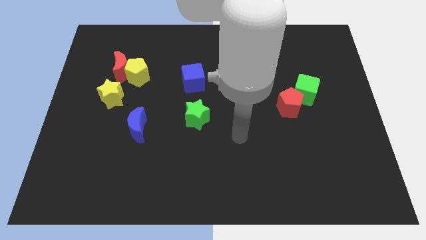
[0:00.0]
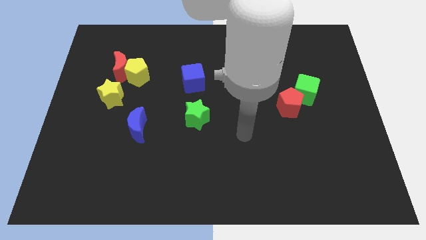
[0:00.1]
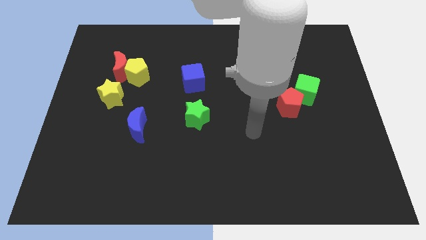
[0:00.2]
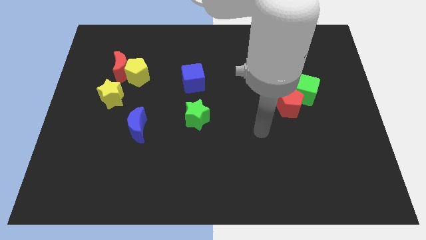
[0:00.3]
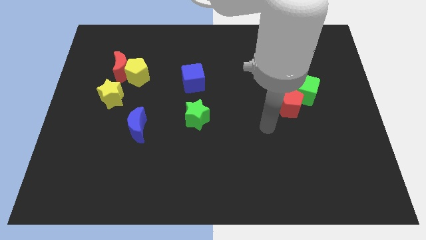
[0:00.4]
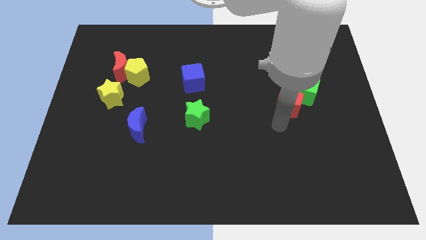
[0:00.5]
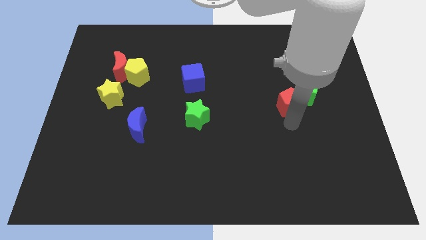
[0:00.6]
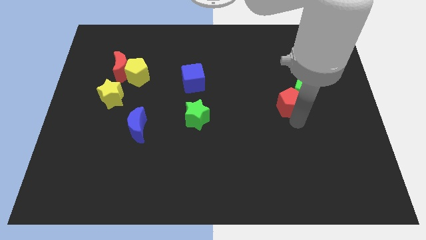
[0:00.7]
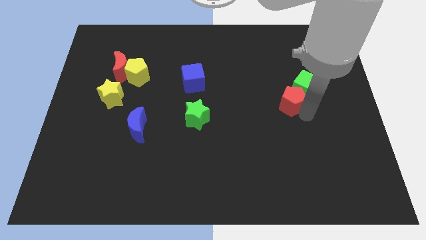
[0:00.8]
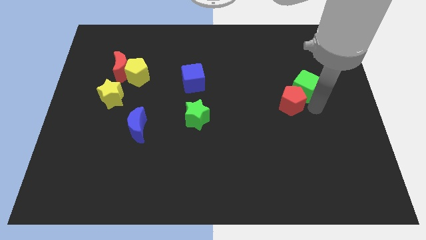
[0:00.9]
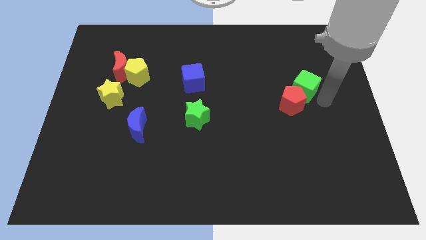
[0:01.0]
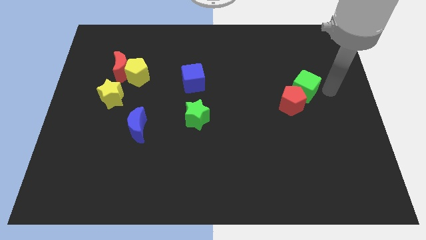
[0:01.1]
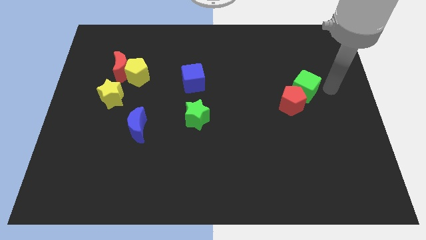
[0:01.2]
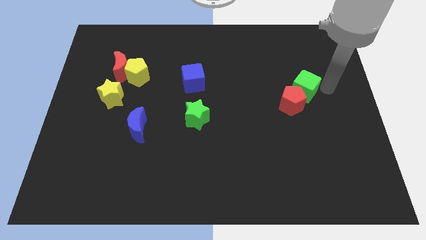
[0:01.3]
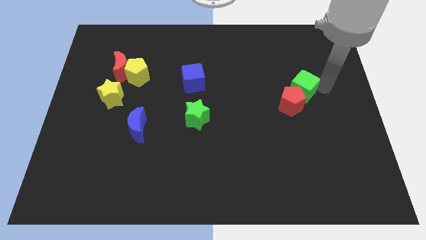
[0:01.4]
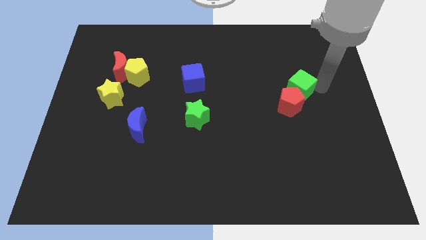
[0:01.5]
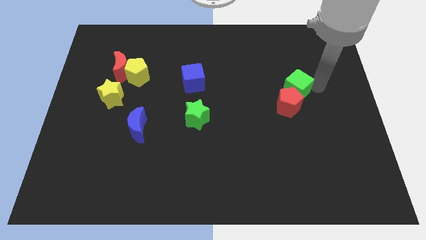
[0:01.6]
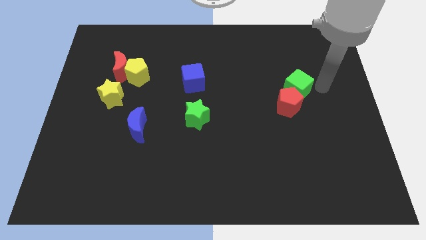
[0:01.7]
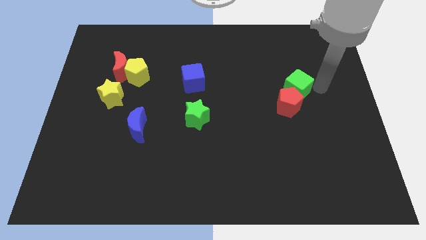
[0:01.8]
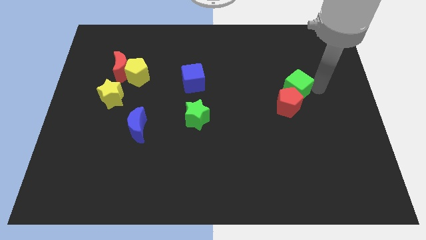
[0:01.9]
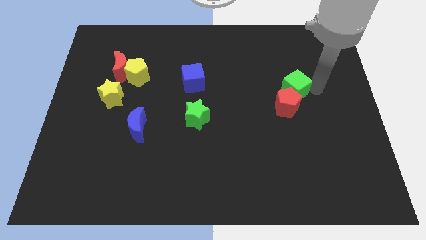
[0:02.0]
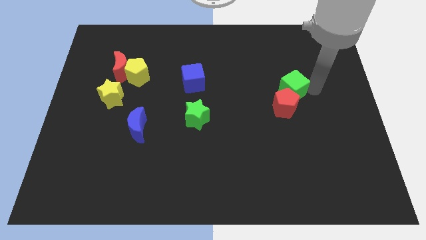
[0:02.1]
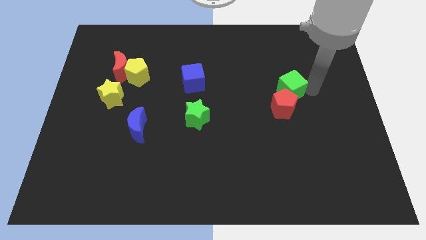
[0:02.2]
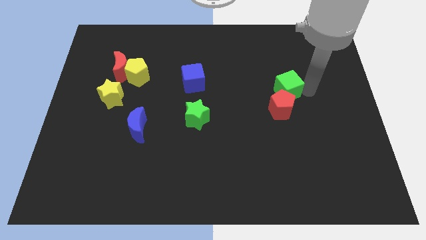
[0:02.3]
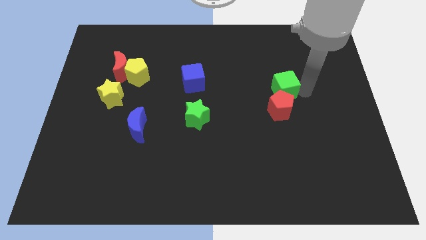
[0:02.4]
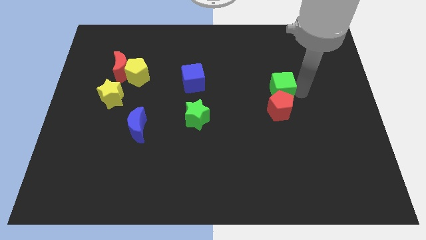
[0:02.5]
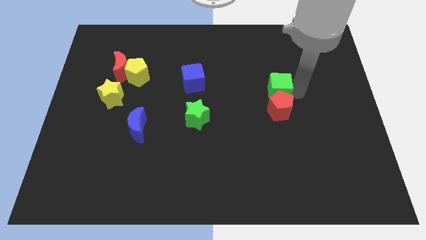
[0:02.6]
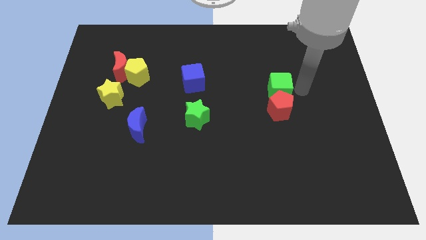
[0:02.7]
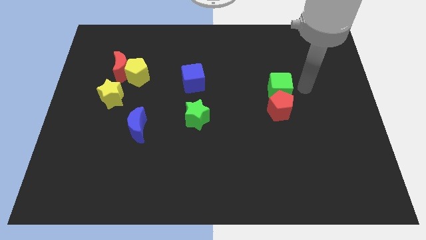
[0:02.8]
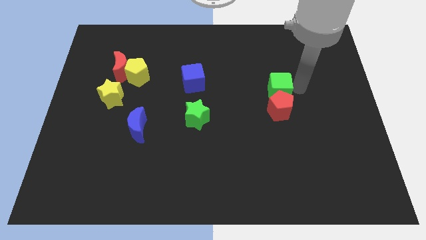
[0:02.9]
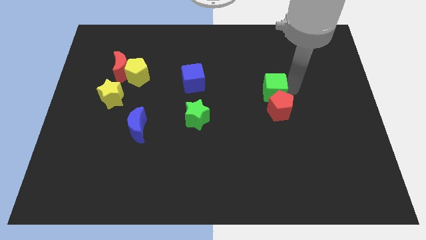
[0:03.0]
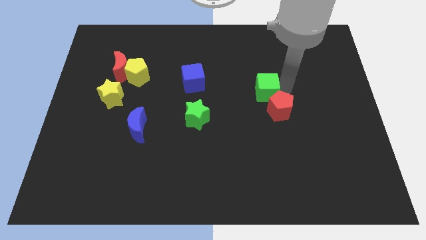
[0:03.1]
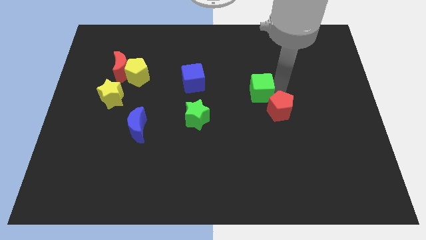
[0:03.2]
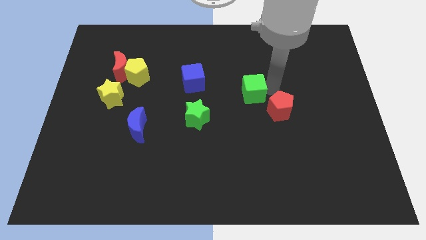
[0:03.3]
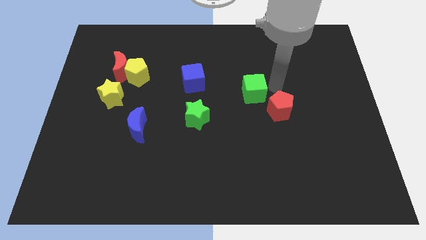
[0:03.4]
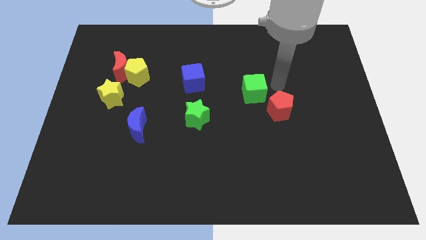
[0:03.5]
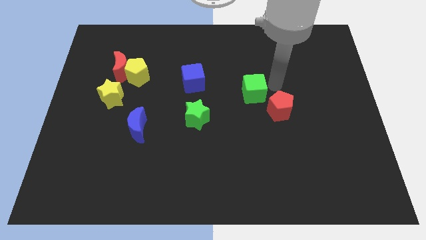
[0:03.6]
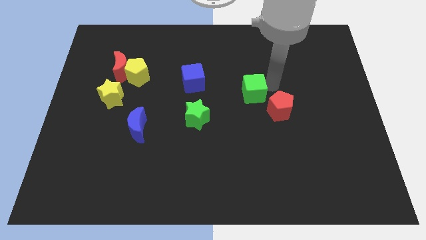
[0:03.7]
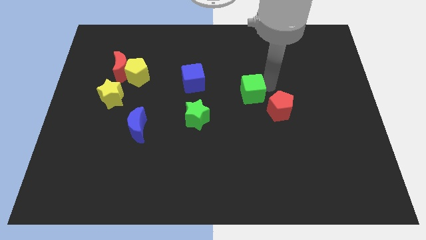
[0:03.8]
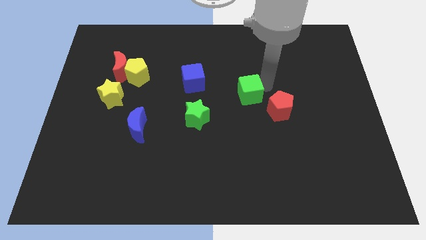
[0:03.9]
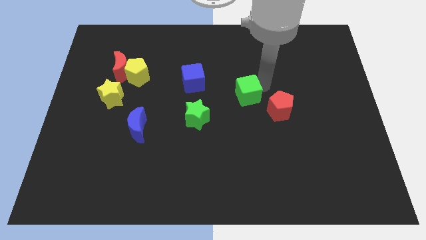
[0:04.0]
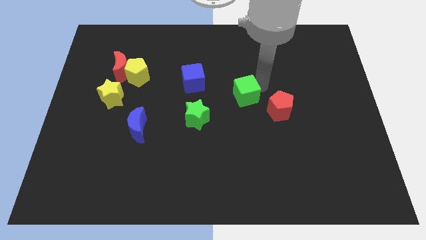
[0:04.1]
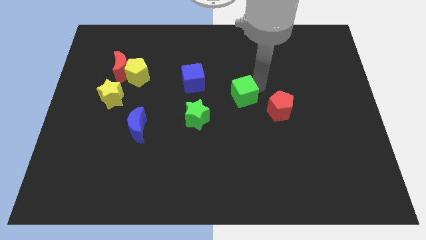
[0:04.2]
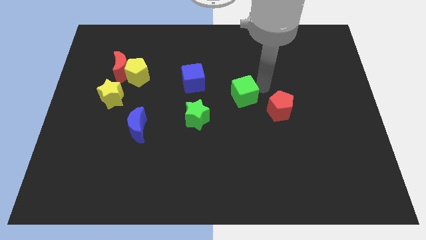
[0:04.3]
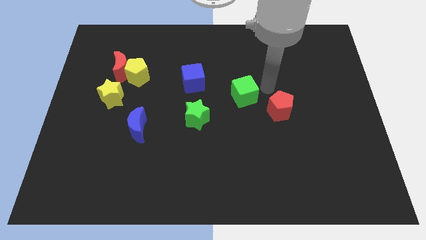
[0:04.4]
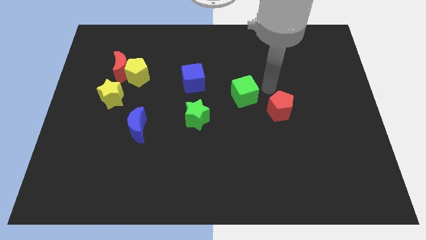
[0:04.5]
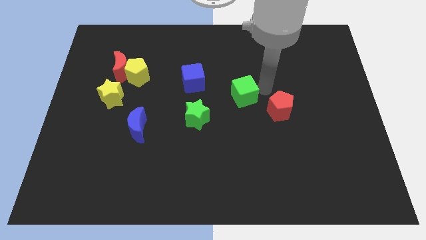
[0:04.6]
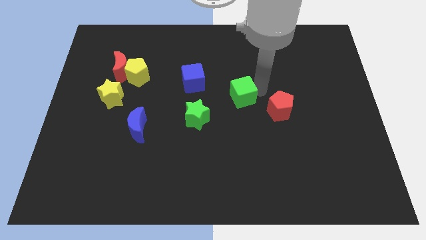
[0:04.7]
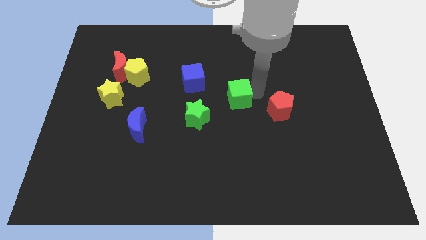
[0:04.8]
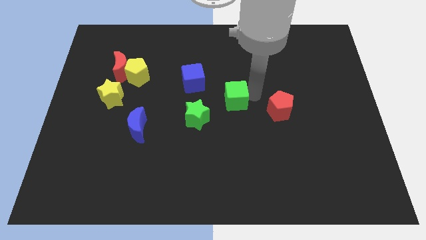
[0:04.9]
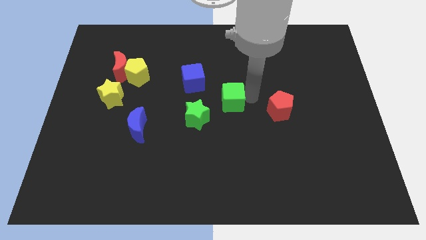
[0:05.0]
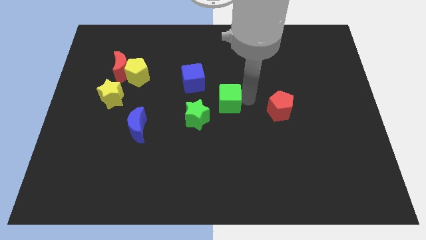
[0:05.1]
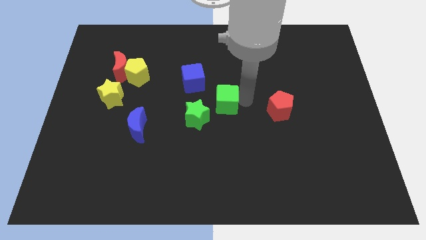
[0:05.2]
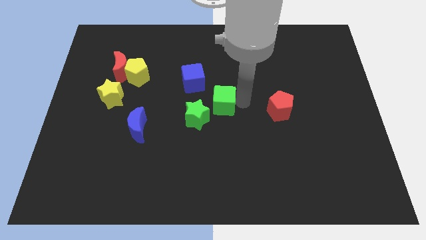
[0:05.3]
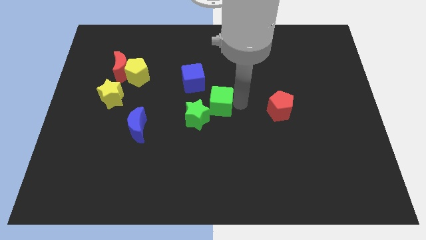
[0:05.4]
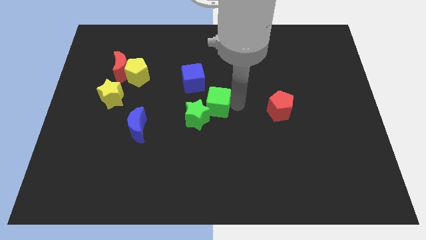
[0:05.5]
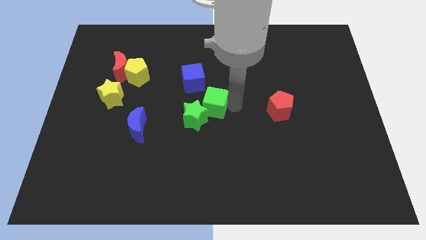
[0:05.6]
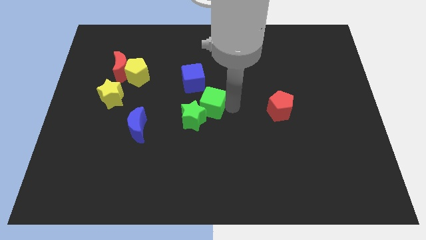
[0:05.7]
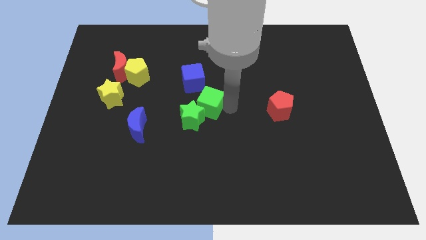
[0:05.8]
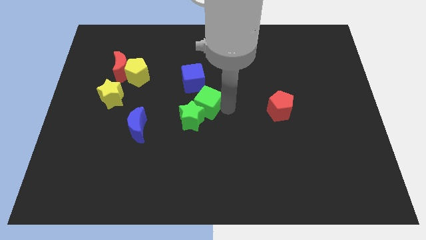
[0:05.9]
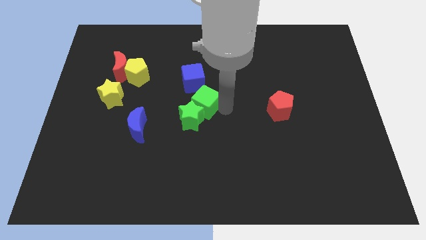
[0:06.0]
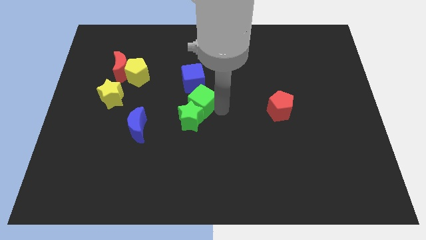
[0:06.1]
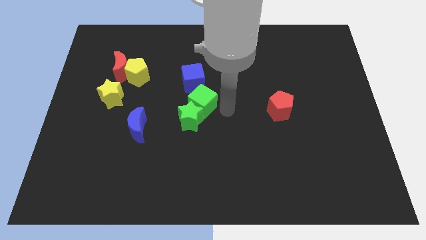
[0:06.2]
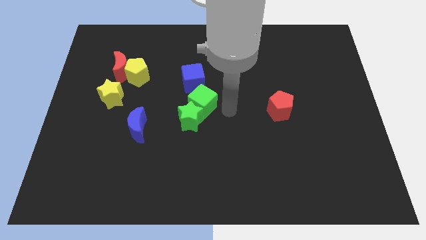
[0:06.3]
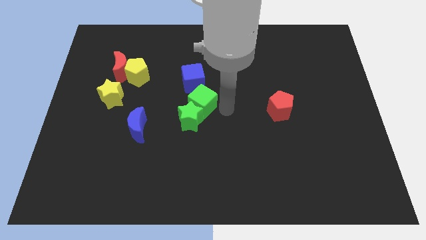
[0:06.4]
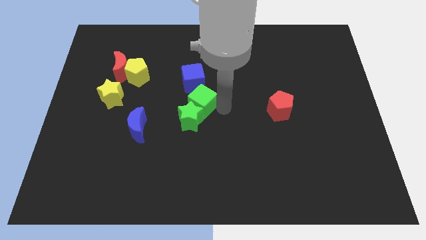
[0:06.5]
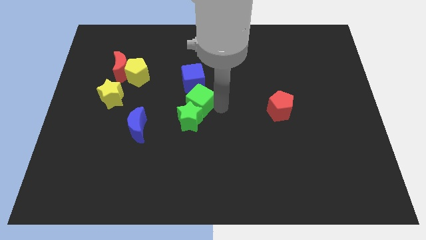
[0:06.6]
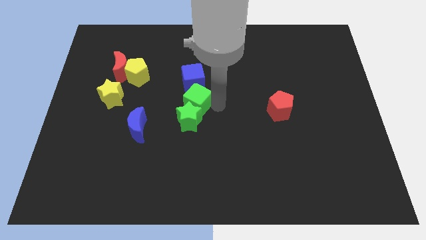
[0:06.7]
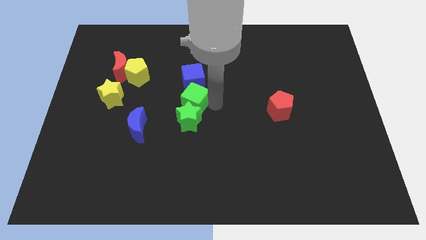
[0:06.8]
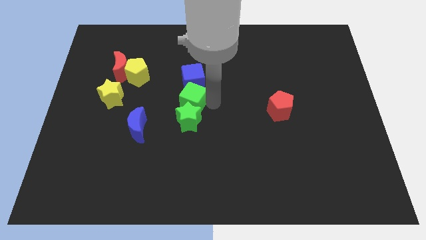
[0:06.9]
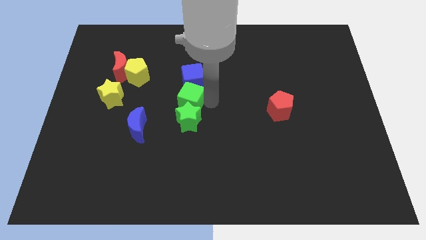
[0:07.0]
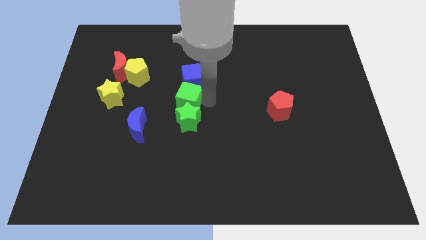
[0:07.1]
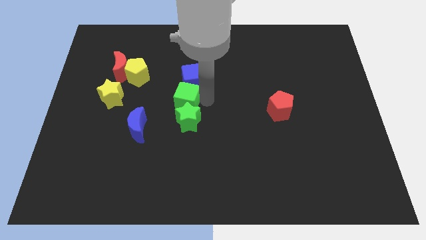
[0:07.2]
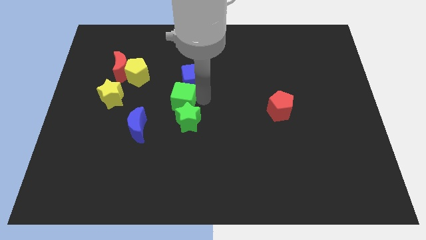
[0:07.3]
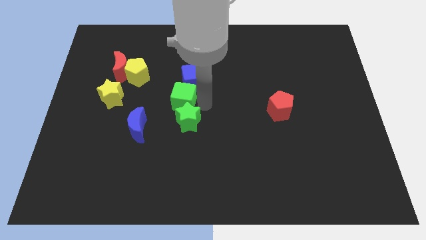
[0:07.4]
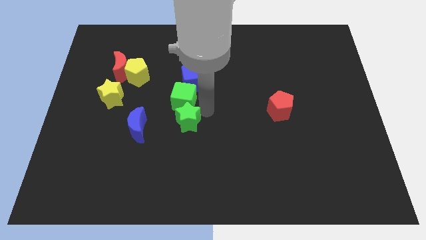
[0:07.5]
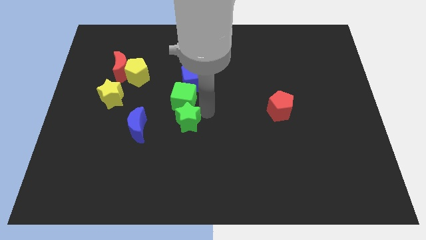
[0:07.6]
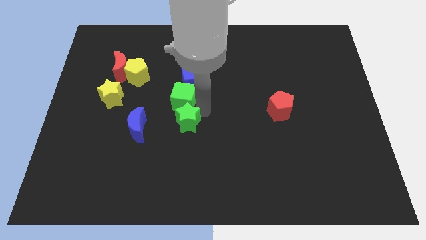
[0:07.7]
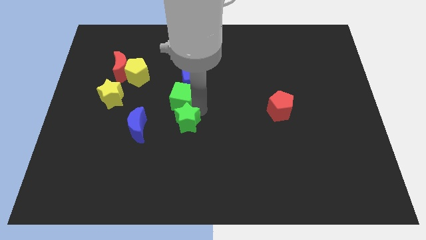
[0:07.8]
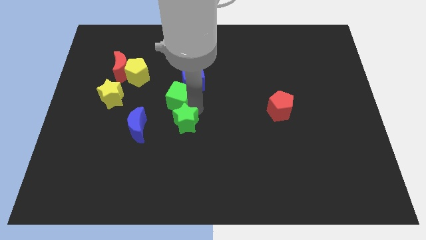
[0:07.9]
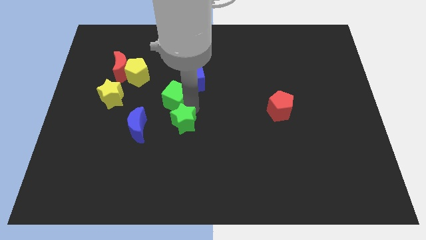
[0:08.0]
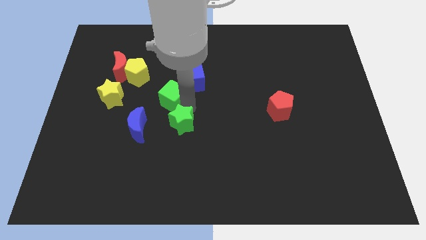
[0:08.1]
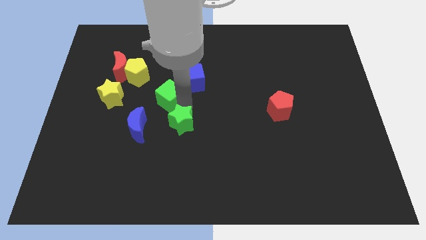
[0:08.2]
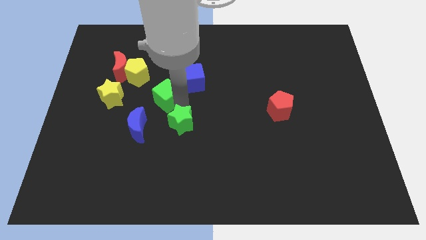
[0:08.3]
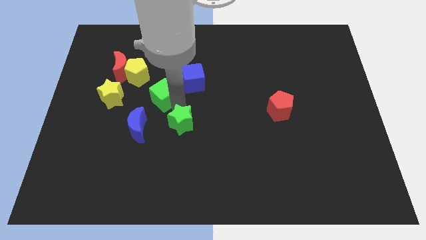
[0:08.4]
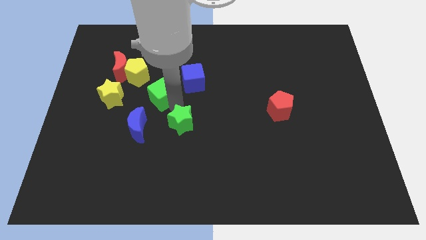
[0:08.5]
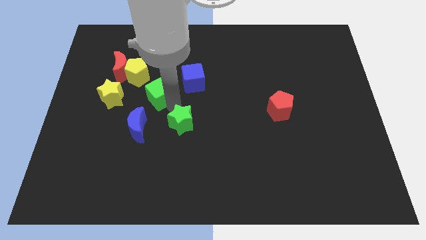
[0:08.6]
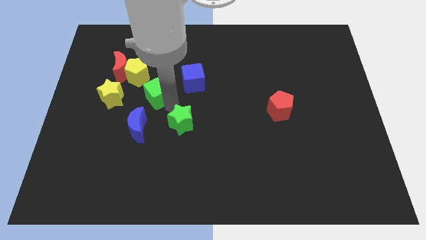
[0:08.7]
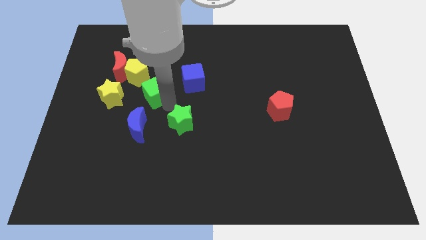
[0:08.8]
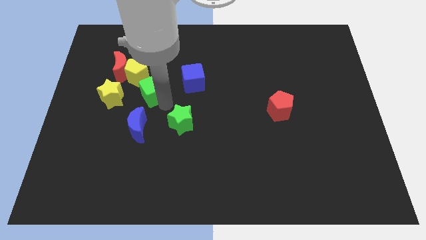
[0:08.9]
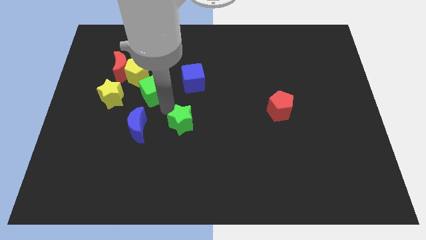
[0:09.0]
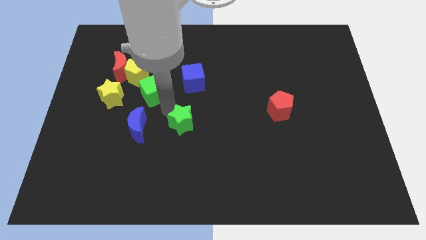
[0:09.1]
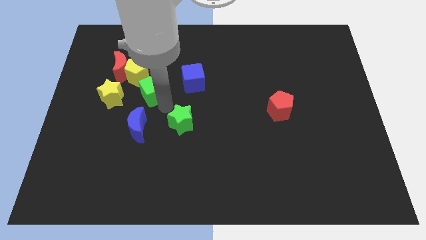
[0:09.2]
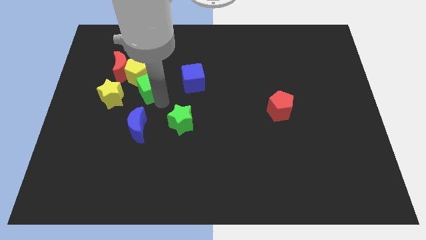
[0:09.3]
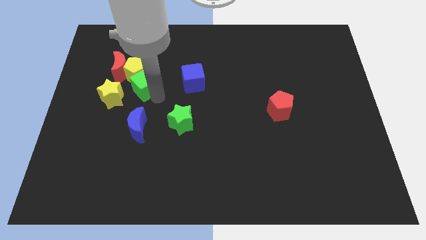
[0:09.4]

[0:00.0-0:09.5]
move the green cube close to the yellow pentagon
